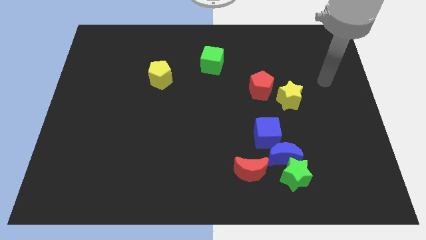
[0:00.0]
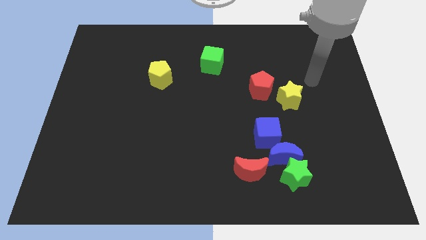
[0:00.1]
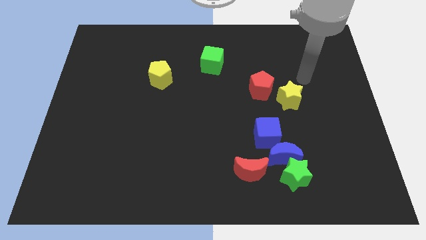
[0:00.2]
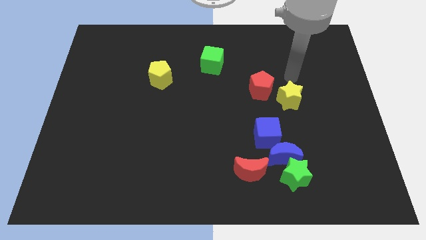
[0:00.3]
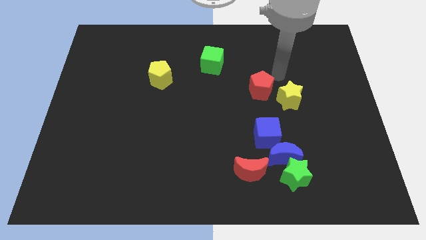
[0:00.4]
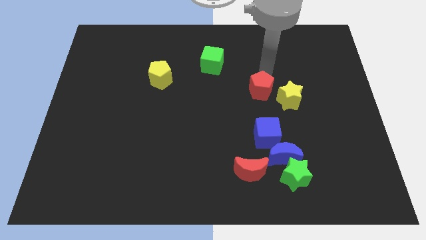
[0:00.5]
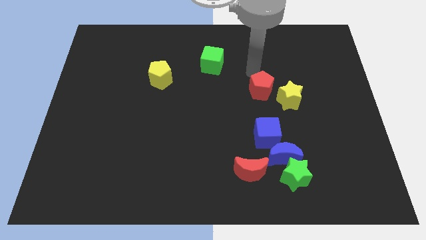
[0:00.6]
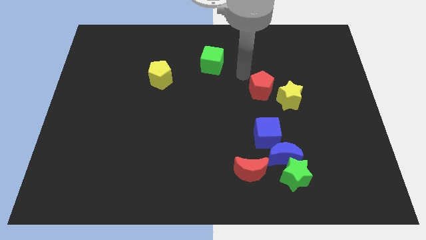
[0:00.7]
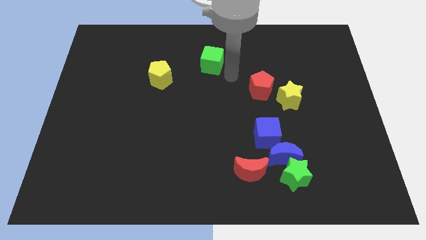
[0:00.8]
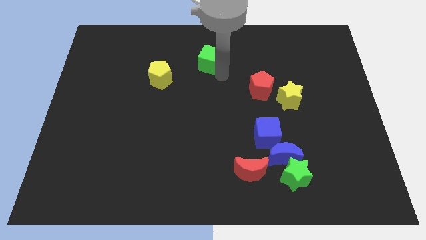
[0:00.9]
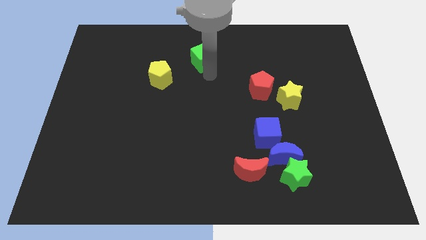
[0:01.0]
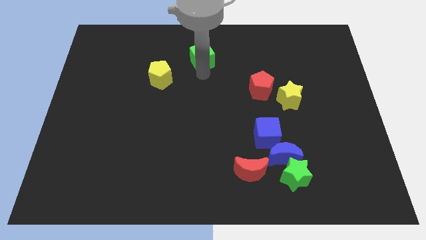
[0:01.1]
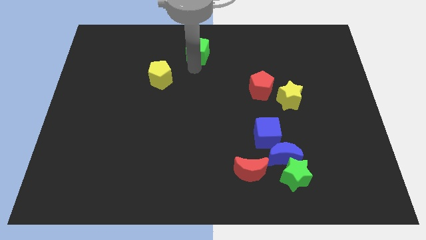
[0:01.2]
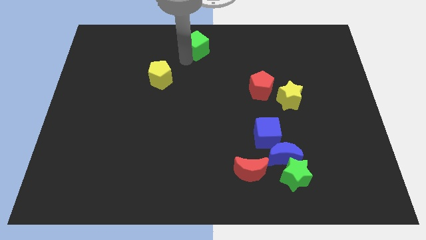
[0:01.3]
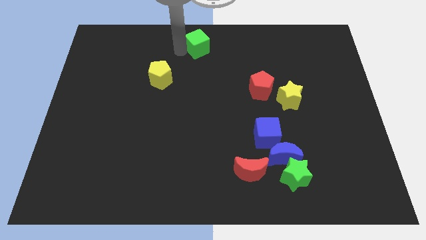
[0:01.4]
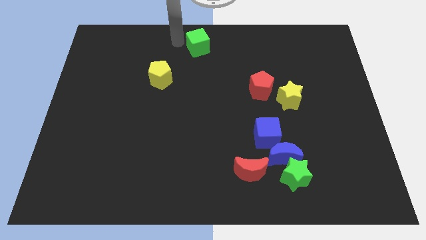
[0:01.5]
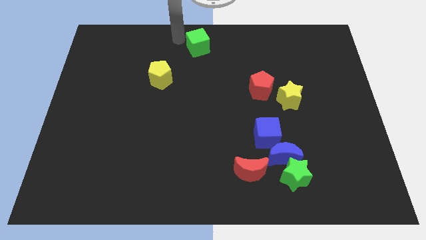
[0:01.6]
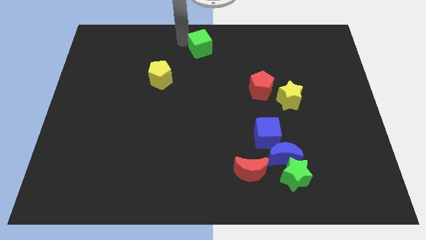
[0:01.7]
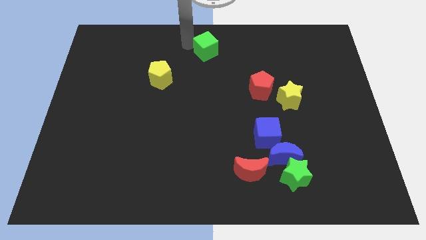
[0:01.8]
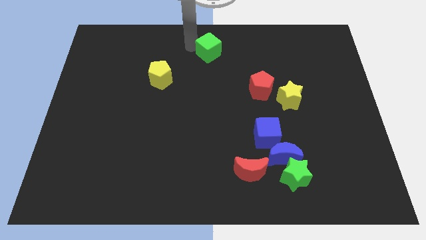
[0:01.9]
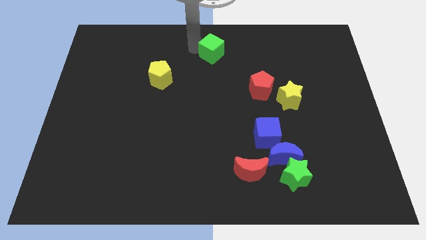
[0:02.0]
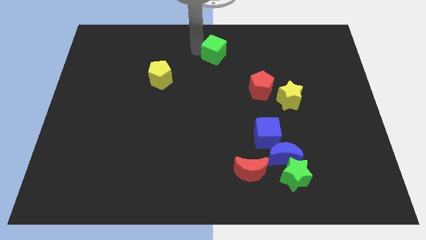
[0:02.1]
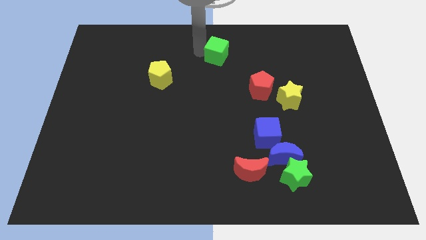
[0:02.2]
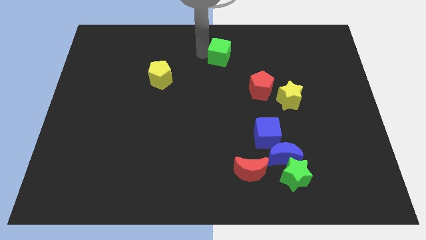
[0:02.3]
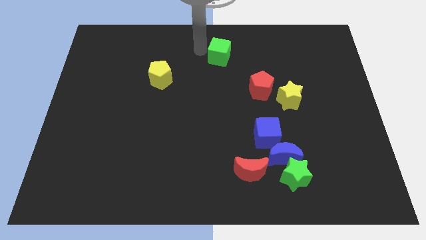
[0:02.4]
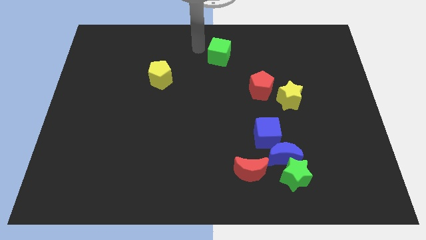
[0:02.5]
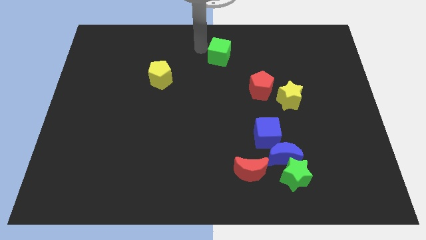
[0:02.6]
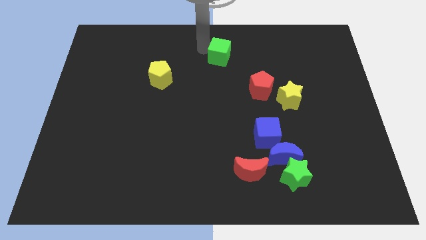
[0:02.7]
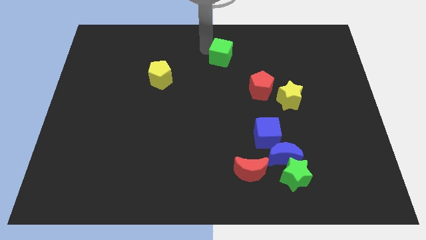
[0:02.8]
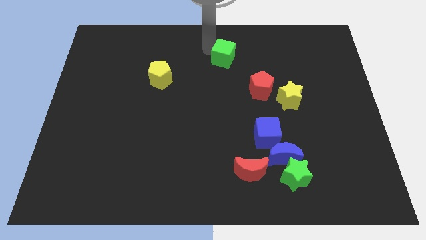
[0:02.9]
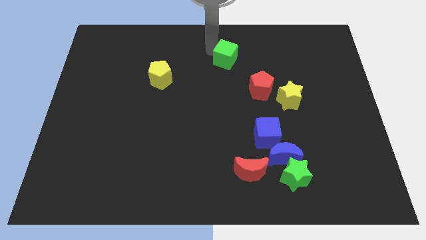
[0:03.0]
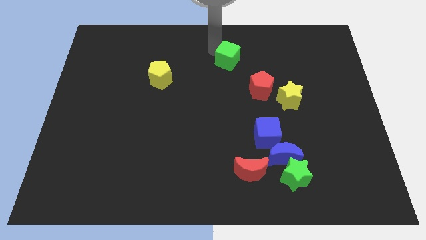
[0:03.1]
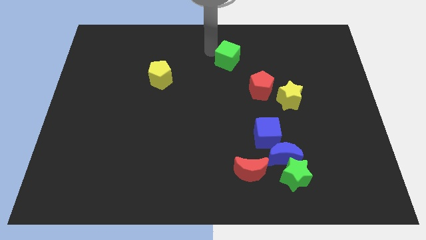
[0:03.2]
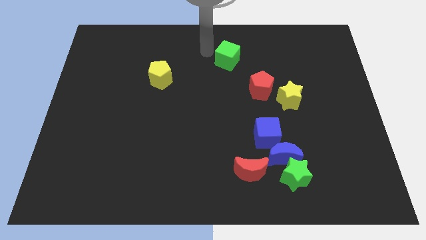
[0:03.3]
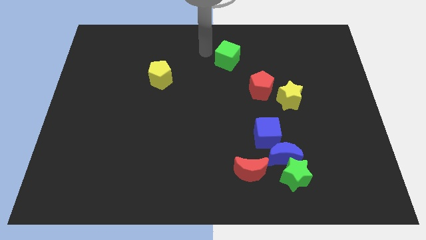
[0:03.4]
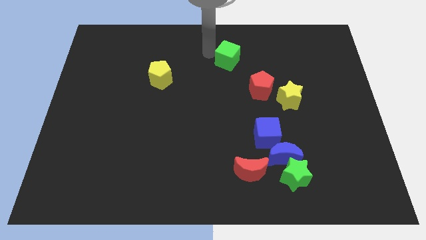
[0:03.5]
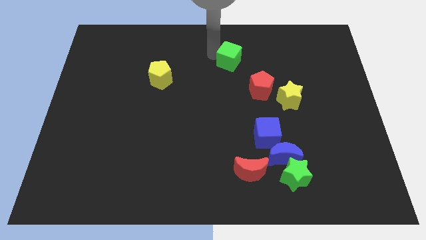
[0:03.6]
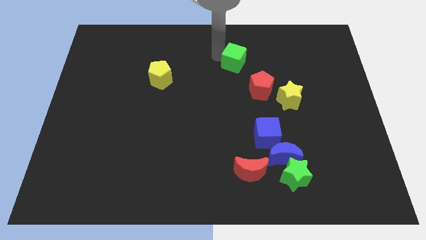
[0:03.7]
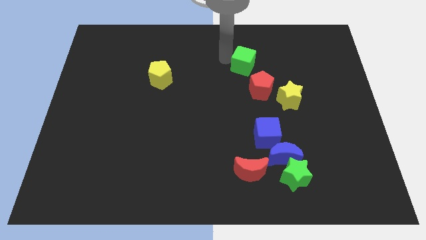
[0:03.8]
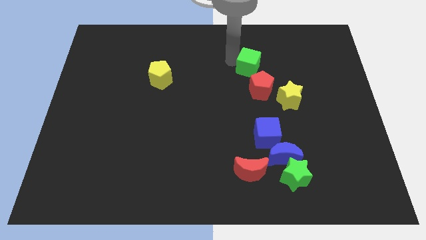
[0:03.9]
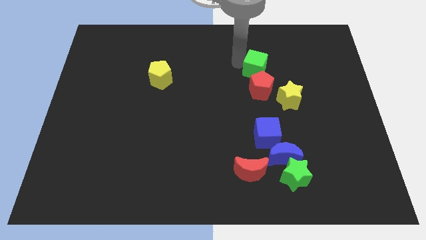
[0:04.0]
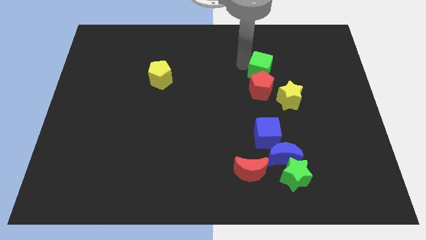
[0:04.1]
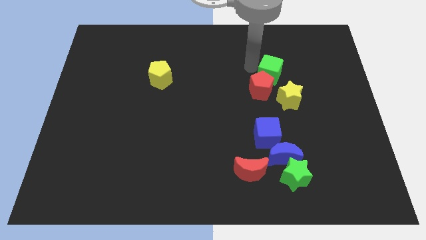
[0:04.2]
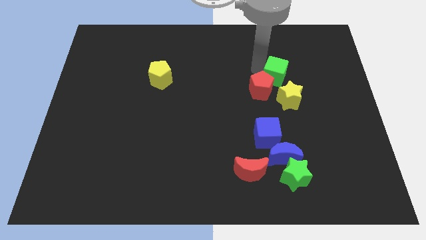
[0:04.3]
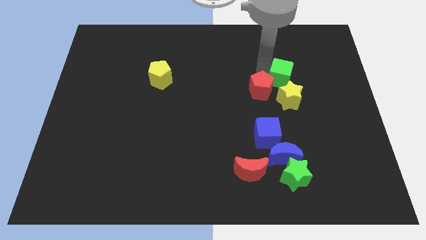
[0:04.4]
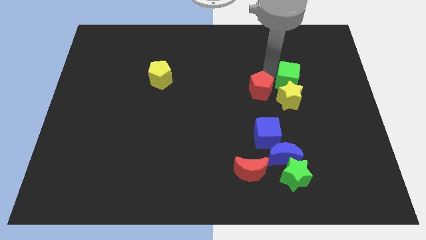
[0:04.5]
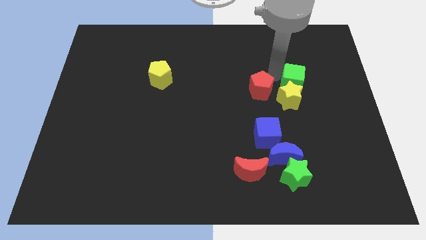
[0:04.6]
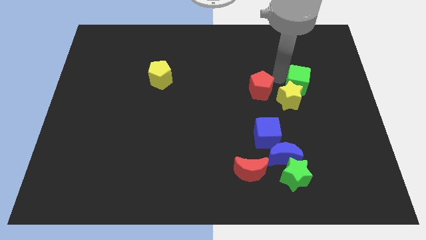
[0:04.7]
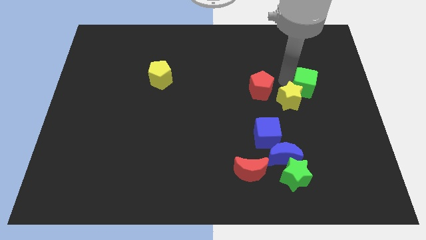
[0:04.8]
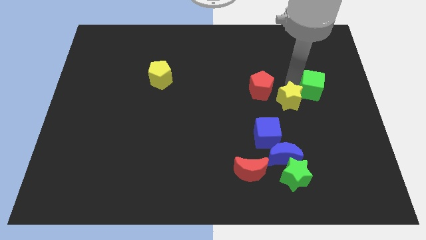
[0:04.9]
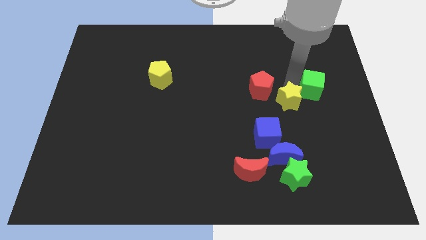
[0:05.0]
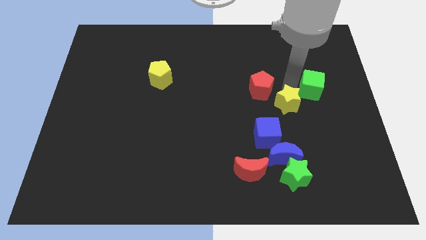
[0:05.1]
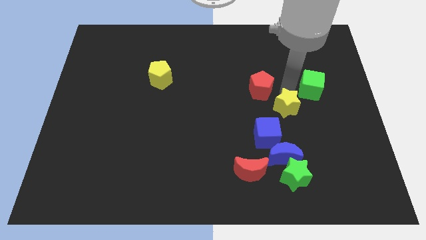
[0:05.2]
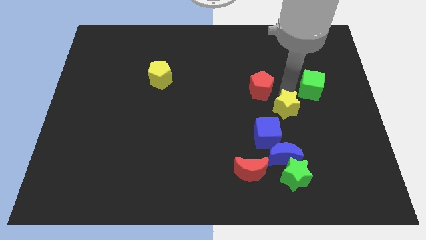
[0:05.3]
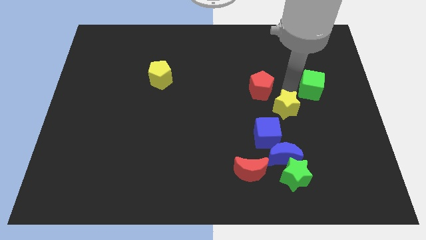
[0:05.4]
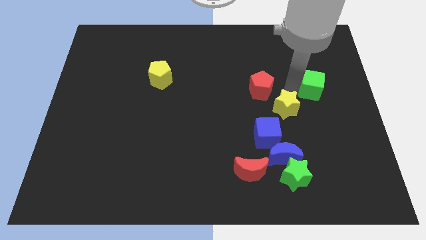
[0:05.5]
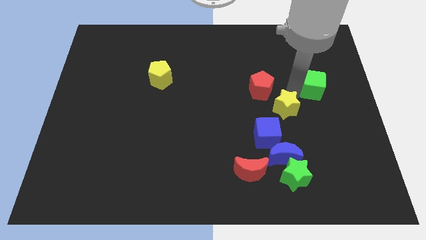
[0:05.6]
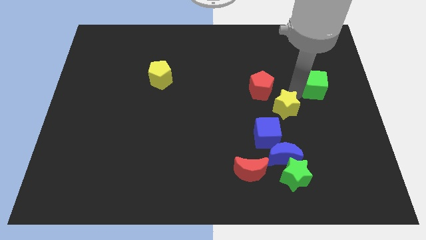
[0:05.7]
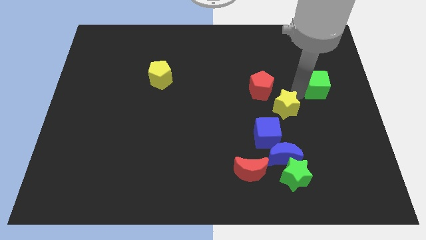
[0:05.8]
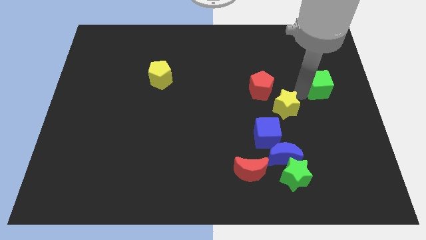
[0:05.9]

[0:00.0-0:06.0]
put the green cube to the right side of the board
